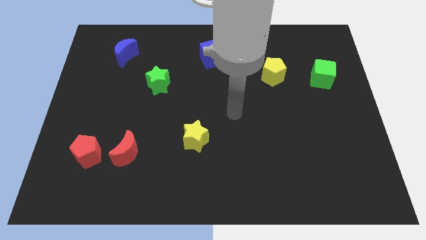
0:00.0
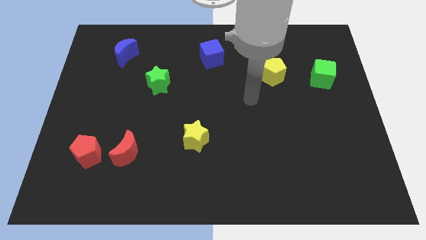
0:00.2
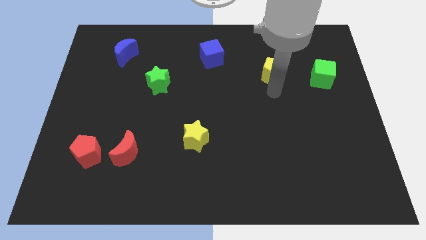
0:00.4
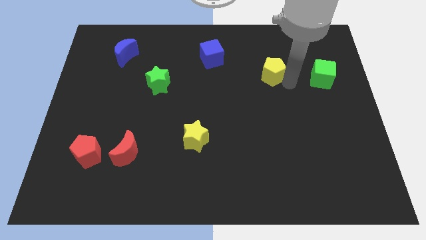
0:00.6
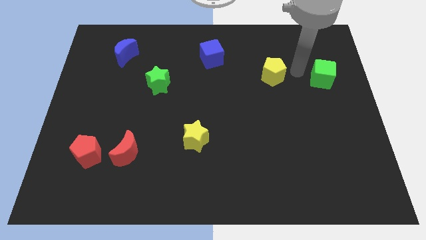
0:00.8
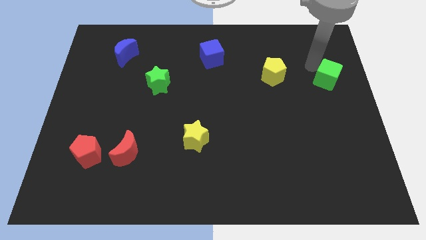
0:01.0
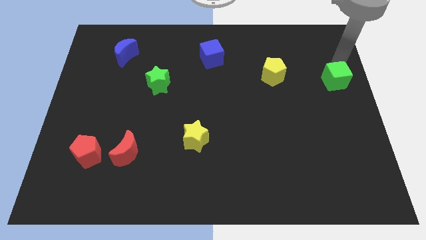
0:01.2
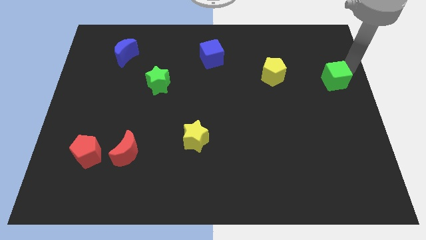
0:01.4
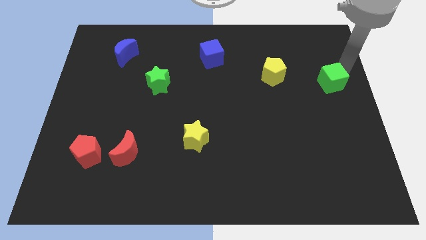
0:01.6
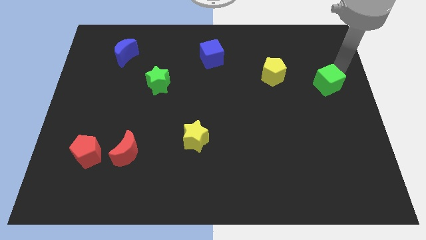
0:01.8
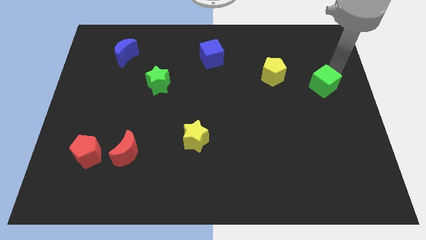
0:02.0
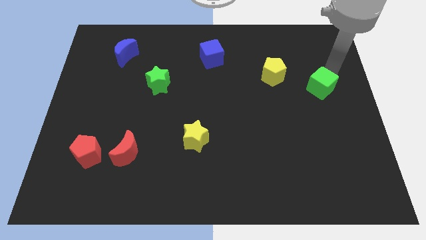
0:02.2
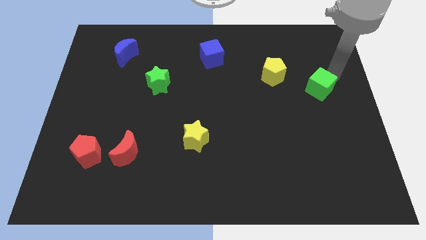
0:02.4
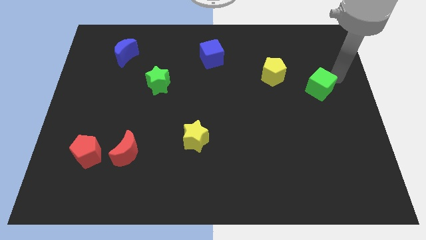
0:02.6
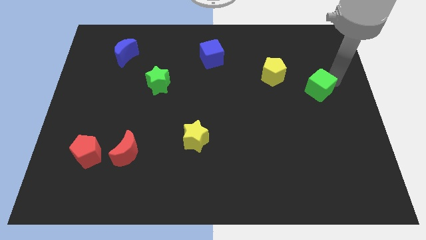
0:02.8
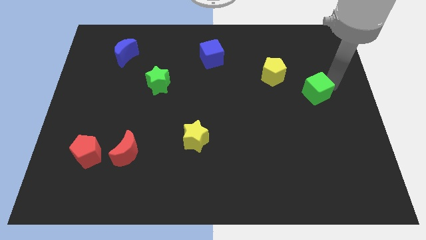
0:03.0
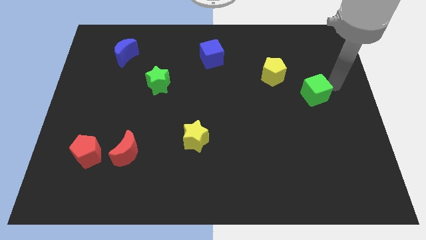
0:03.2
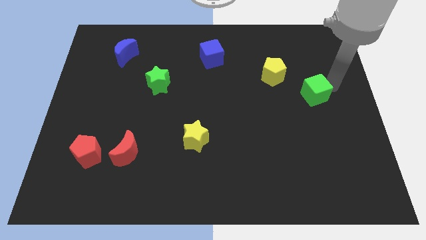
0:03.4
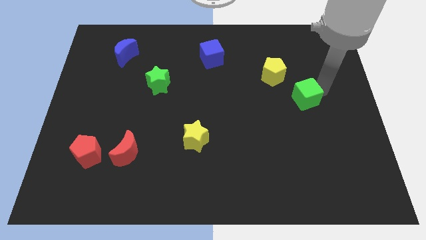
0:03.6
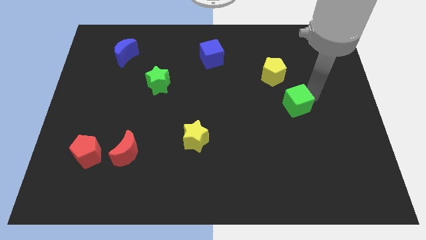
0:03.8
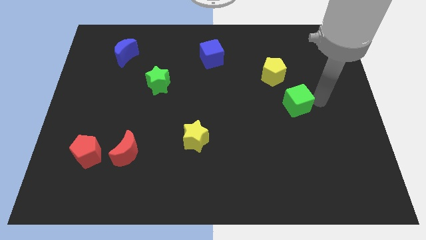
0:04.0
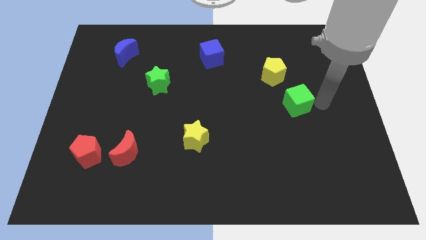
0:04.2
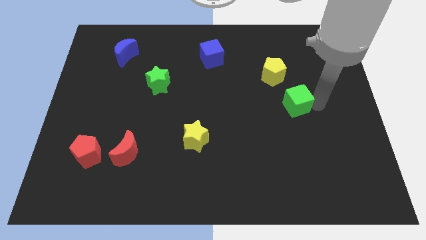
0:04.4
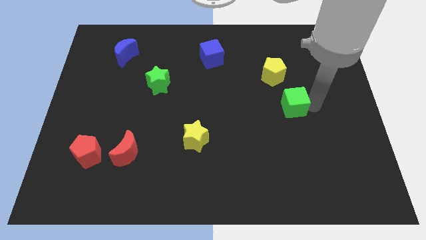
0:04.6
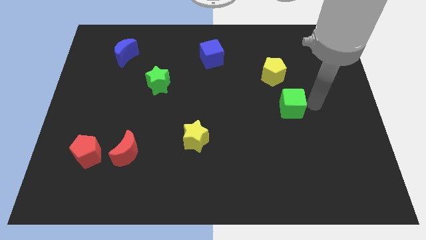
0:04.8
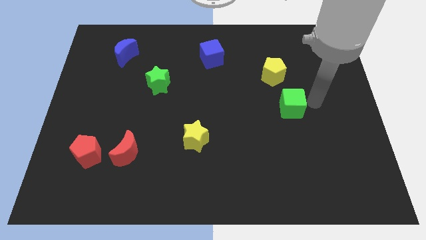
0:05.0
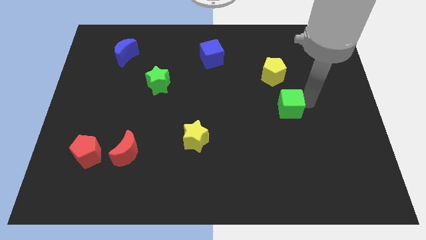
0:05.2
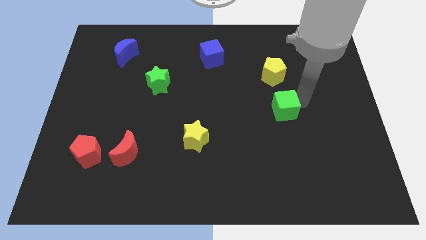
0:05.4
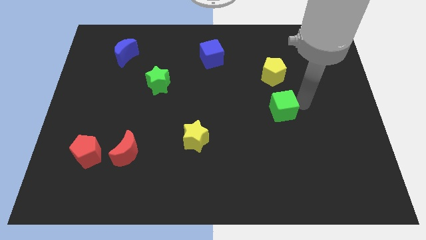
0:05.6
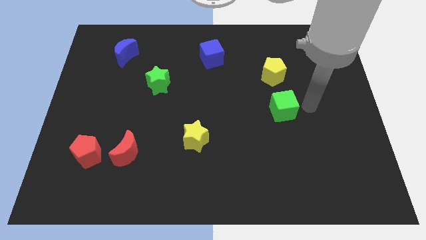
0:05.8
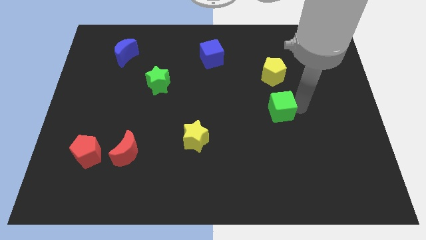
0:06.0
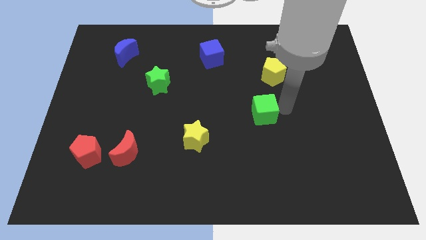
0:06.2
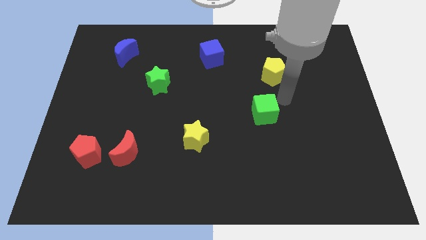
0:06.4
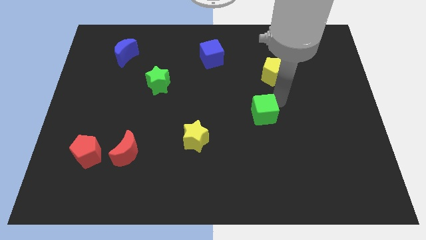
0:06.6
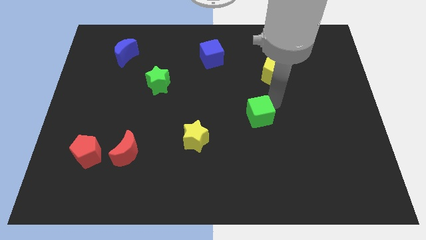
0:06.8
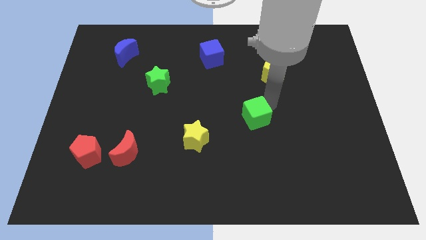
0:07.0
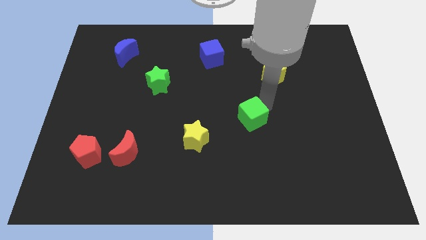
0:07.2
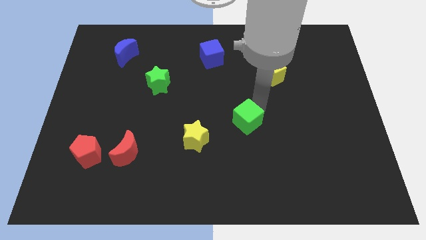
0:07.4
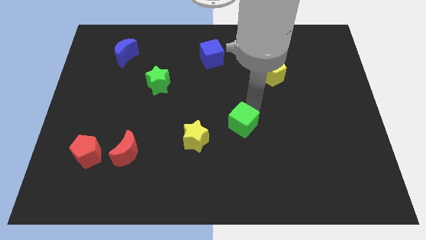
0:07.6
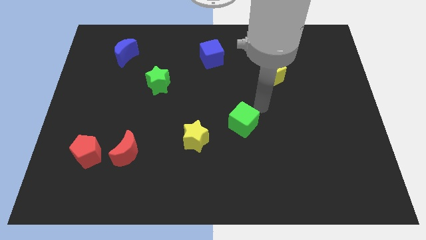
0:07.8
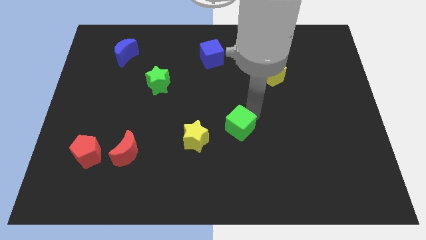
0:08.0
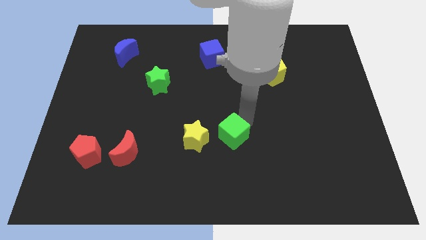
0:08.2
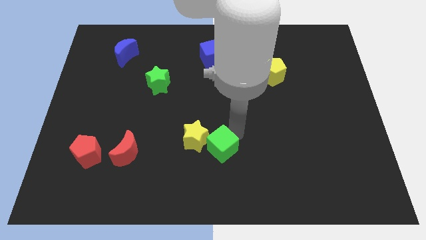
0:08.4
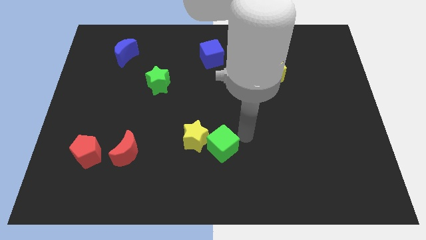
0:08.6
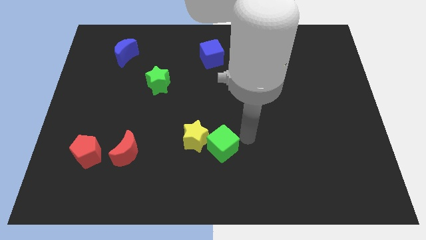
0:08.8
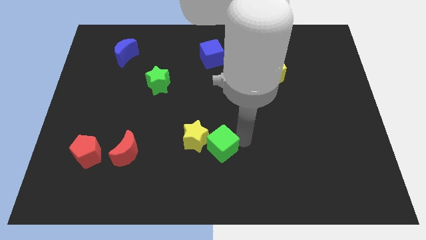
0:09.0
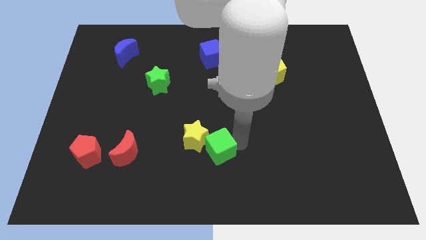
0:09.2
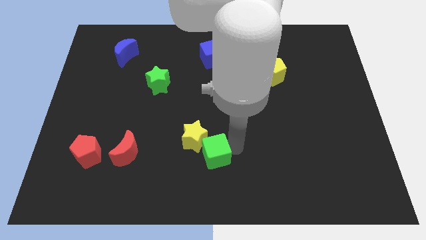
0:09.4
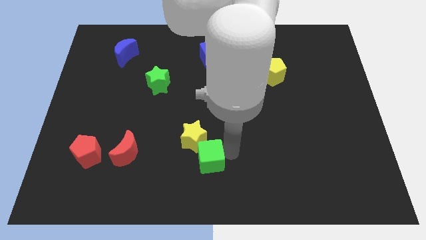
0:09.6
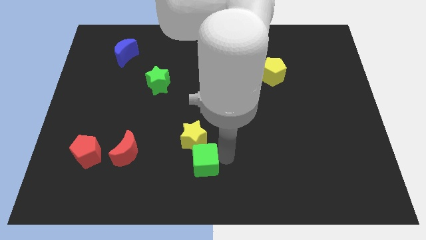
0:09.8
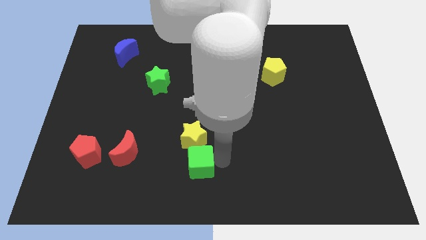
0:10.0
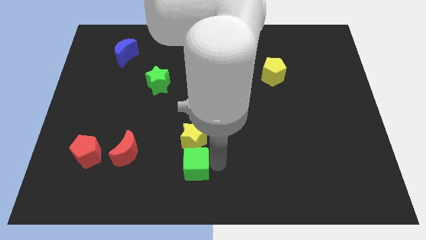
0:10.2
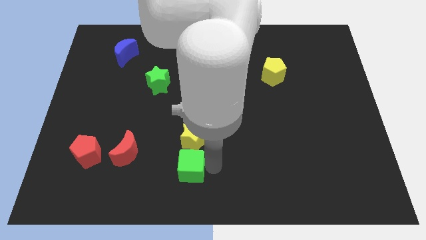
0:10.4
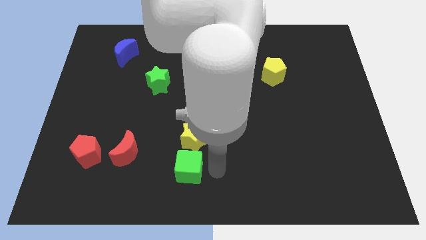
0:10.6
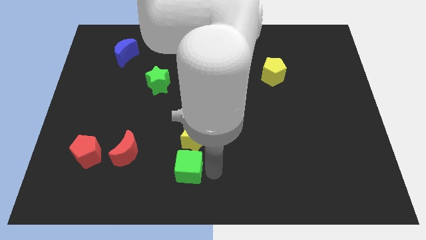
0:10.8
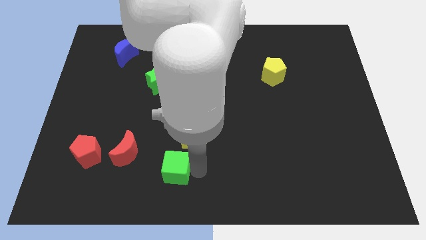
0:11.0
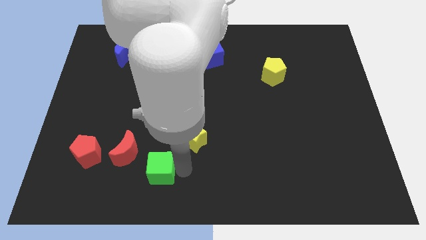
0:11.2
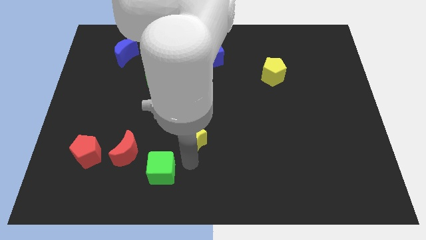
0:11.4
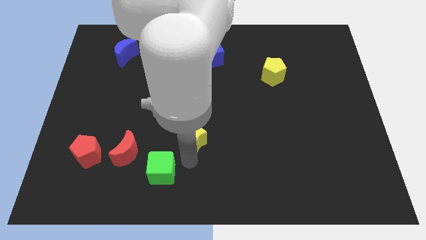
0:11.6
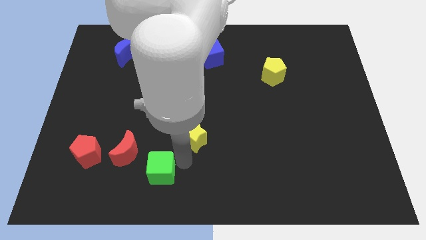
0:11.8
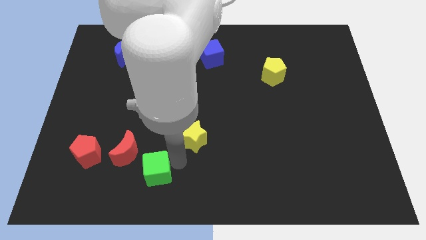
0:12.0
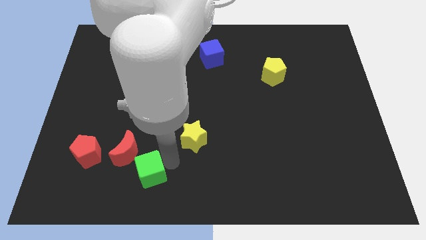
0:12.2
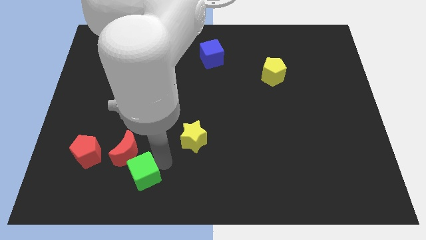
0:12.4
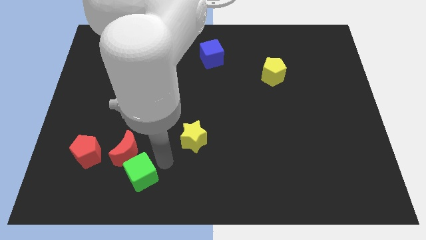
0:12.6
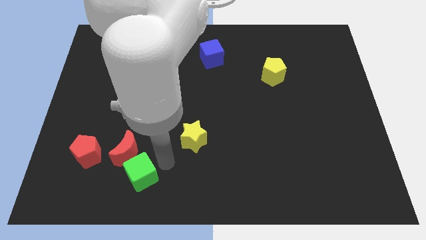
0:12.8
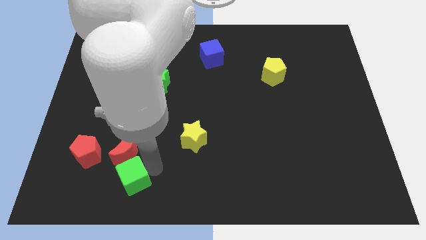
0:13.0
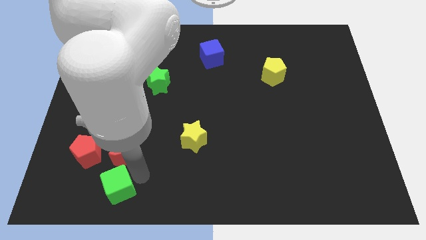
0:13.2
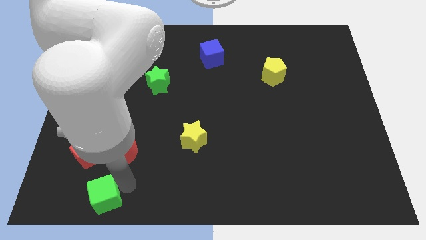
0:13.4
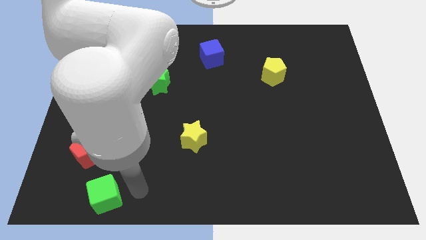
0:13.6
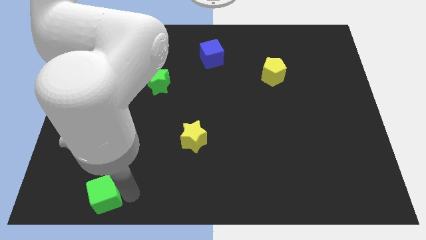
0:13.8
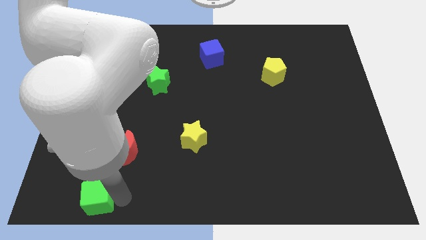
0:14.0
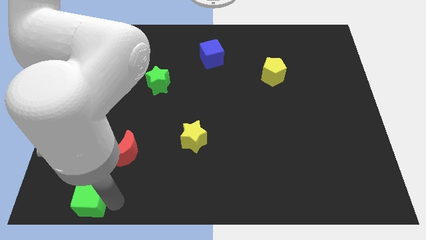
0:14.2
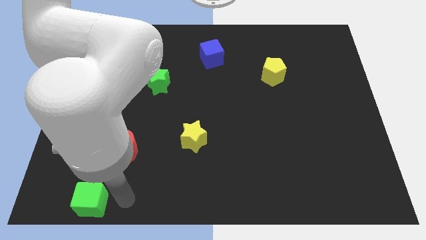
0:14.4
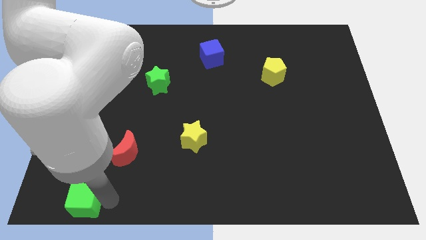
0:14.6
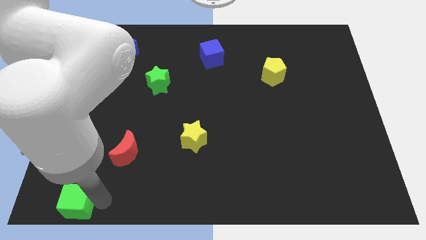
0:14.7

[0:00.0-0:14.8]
move the green cube to the bottom left
